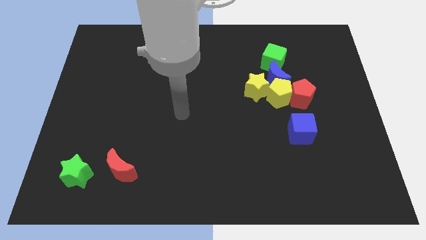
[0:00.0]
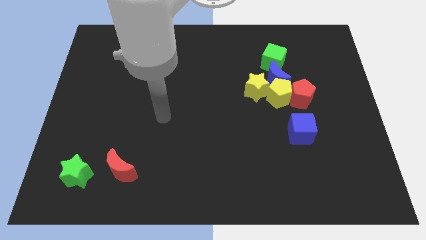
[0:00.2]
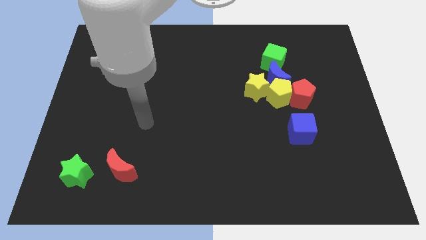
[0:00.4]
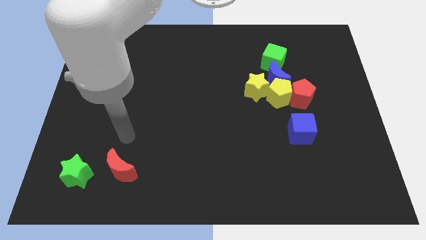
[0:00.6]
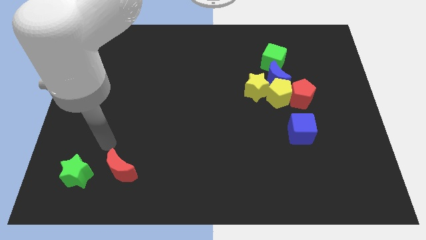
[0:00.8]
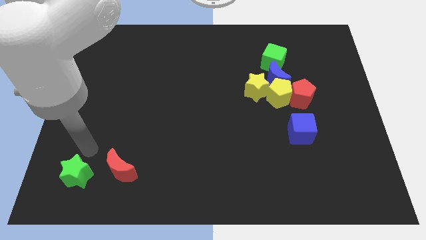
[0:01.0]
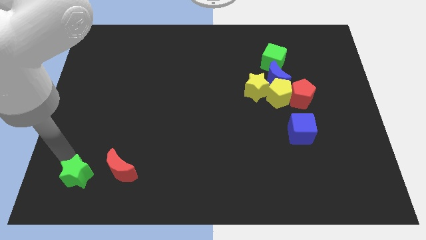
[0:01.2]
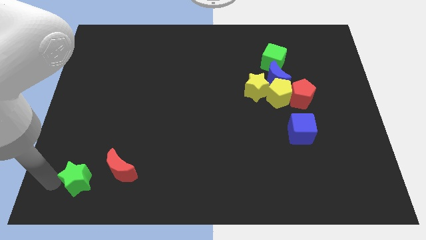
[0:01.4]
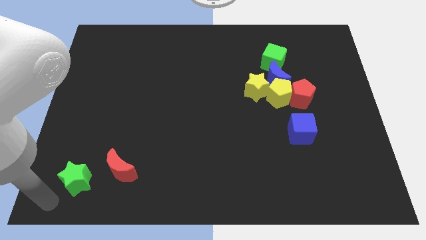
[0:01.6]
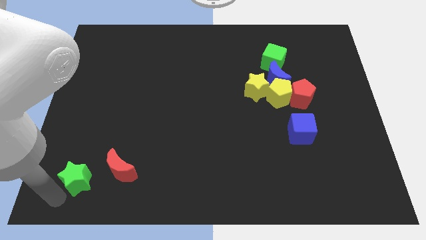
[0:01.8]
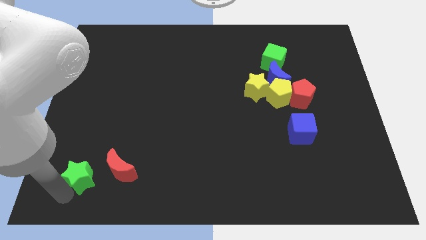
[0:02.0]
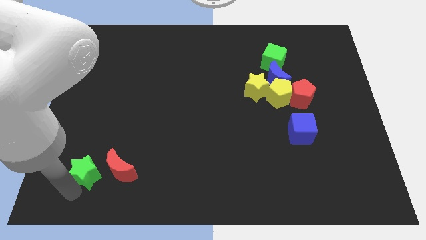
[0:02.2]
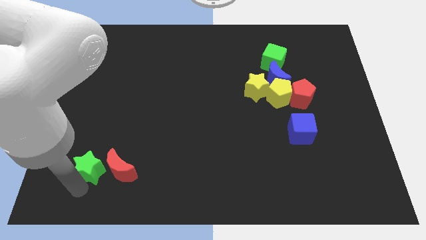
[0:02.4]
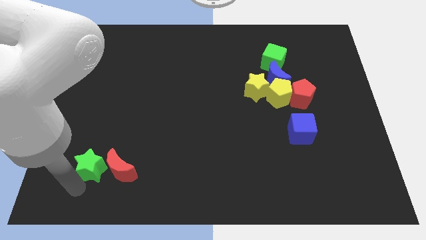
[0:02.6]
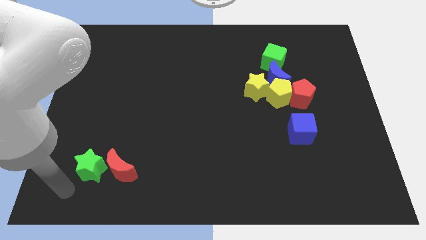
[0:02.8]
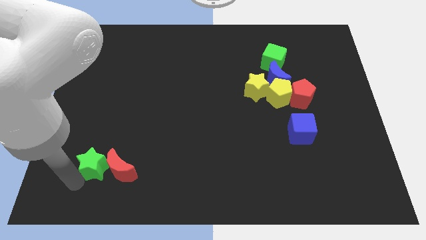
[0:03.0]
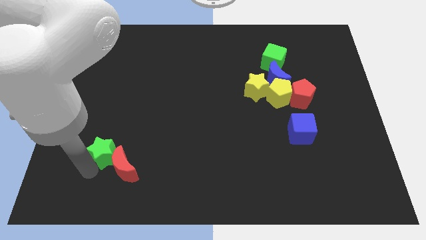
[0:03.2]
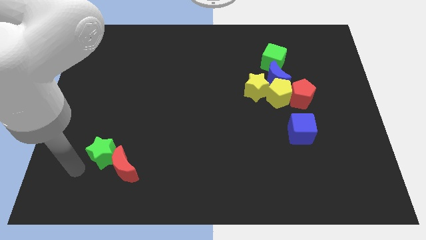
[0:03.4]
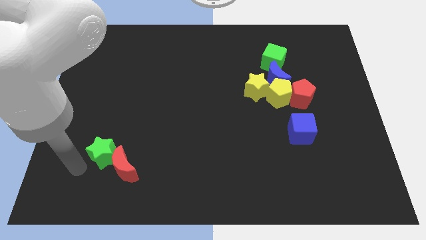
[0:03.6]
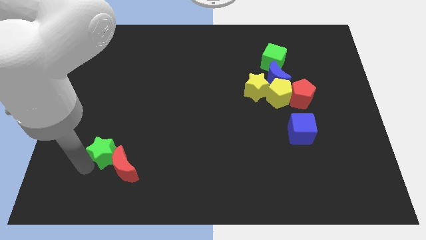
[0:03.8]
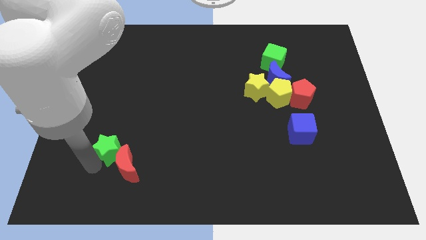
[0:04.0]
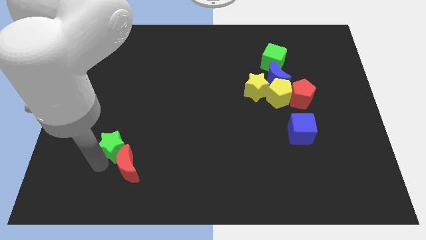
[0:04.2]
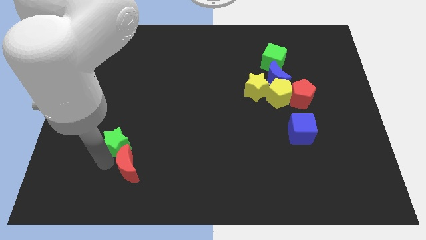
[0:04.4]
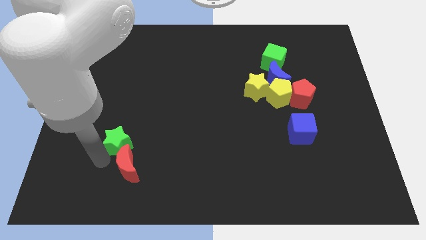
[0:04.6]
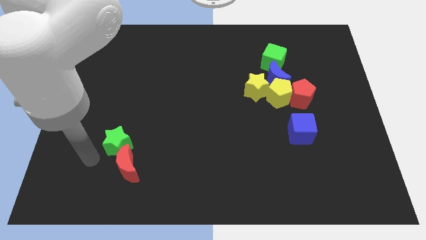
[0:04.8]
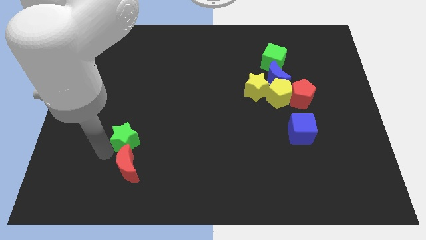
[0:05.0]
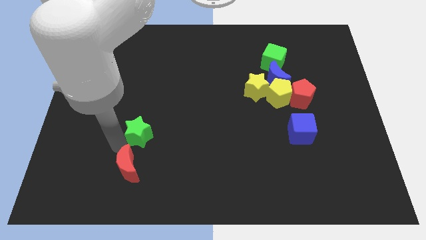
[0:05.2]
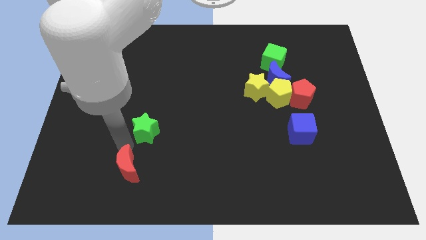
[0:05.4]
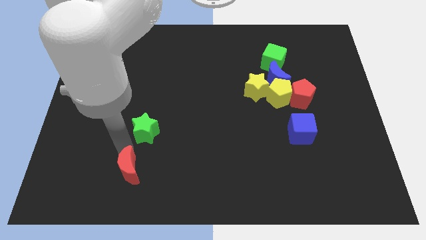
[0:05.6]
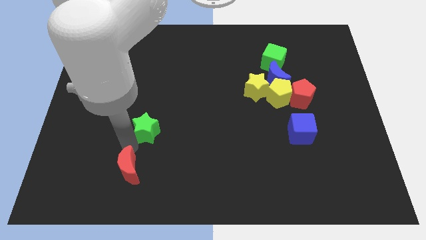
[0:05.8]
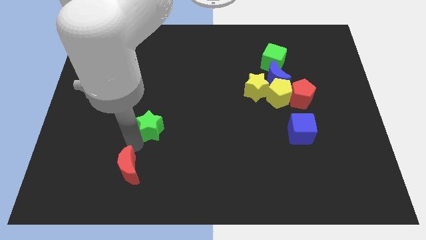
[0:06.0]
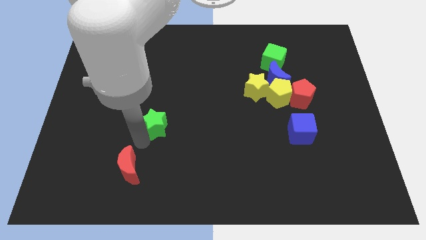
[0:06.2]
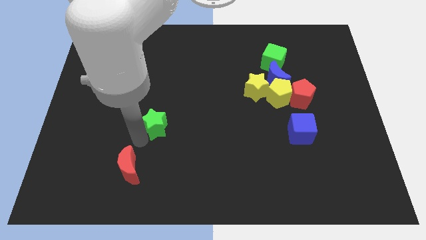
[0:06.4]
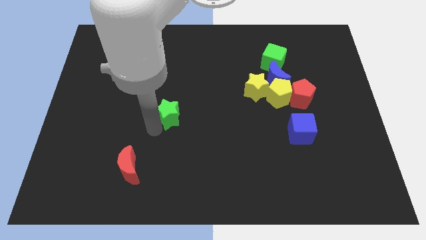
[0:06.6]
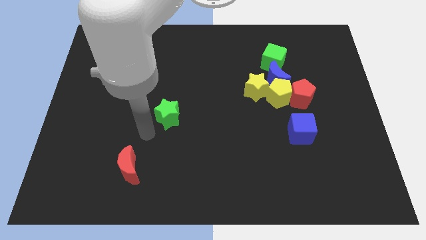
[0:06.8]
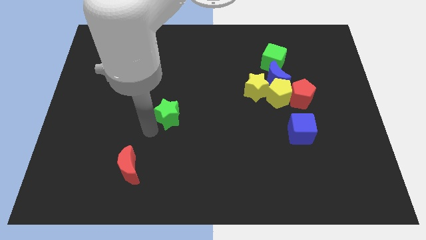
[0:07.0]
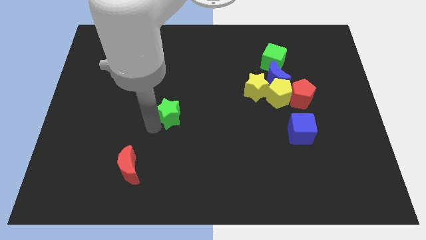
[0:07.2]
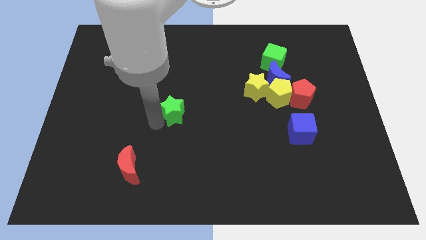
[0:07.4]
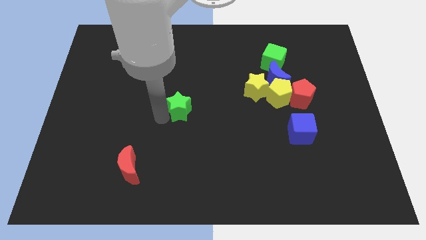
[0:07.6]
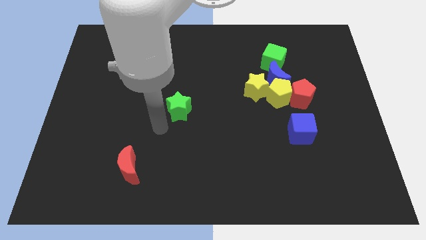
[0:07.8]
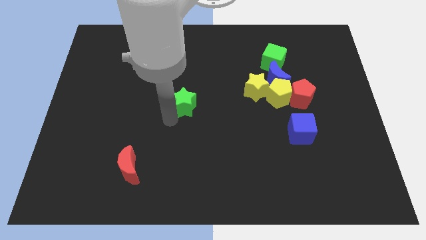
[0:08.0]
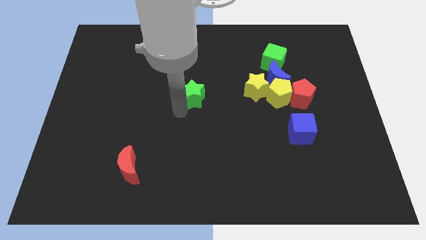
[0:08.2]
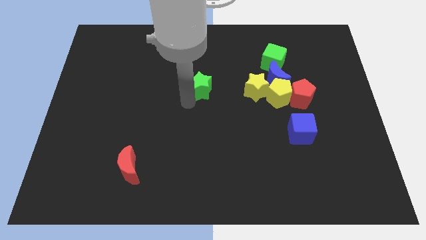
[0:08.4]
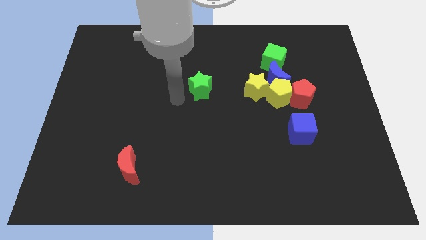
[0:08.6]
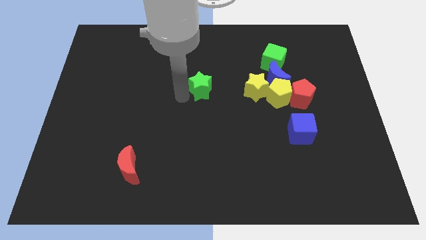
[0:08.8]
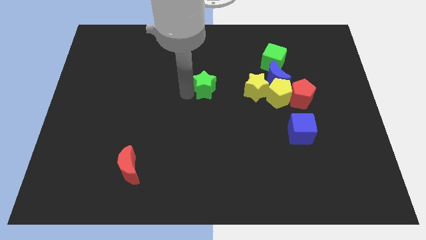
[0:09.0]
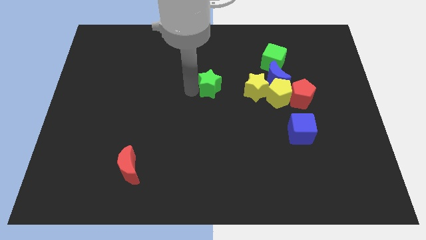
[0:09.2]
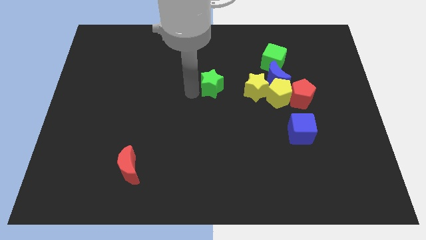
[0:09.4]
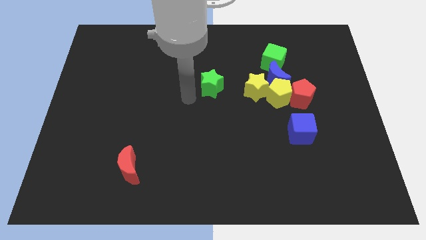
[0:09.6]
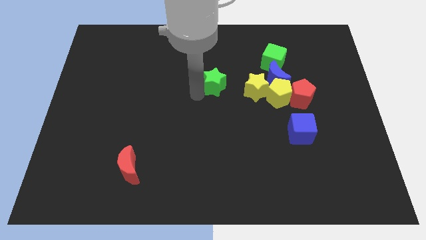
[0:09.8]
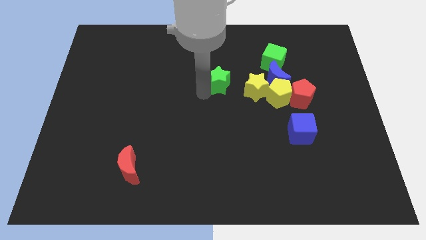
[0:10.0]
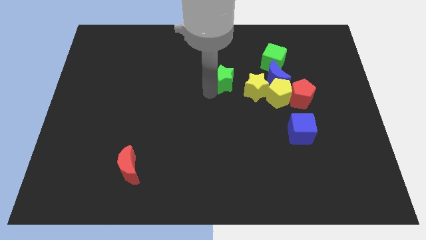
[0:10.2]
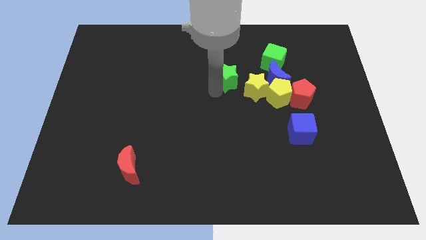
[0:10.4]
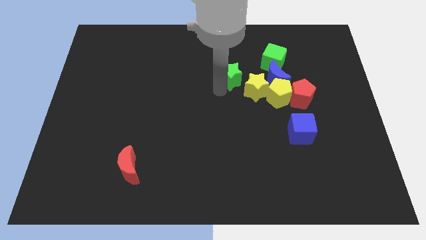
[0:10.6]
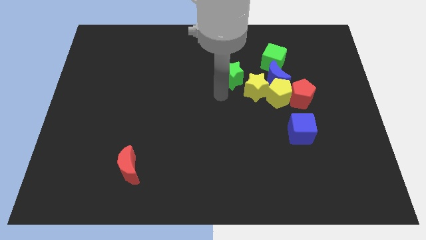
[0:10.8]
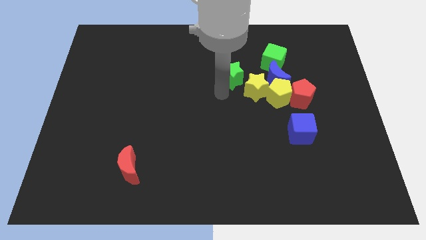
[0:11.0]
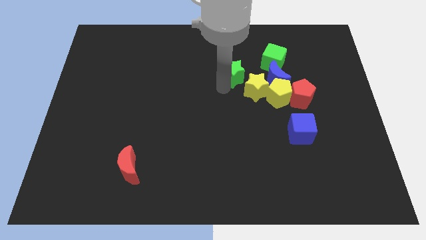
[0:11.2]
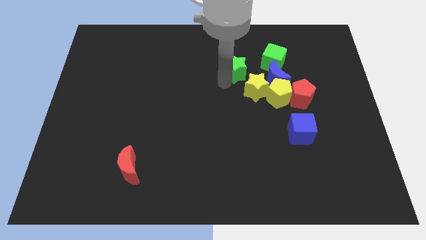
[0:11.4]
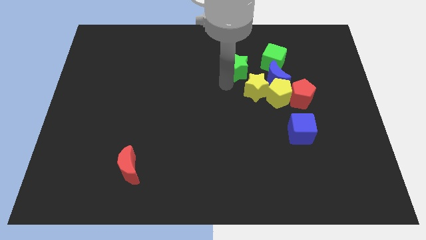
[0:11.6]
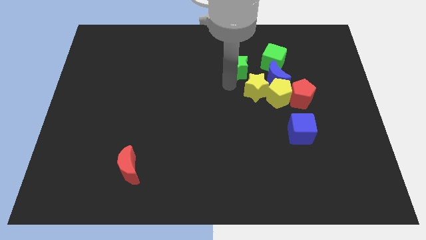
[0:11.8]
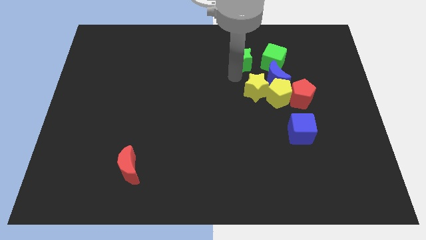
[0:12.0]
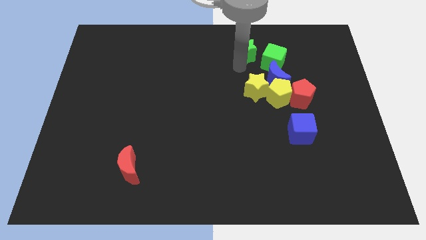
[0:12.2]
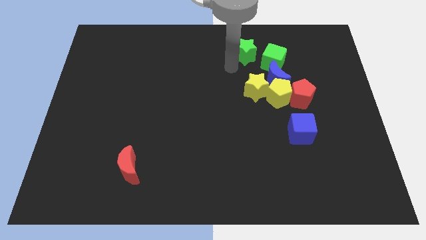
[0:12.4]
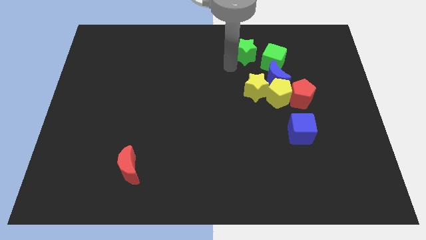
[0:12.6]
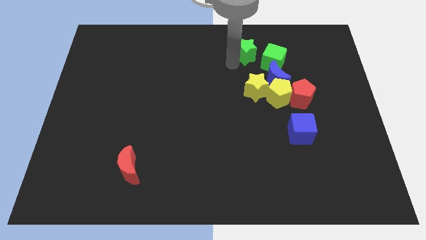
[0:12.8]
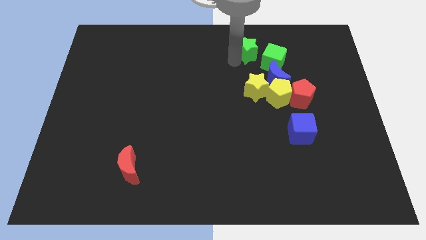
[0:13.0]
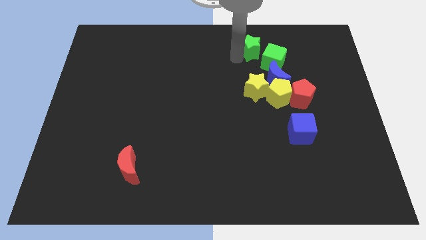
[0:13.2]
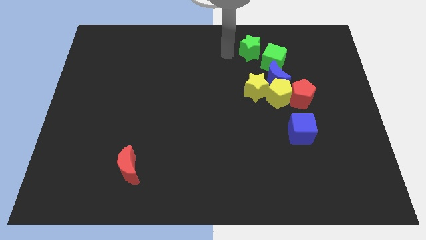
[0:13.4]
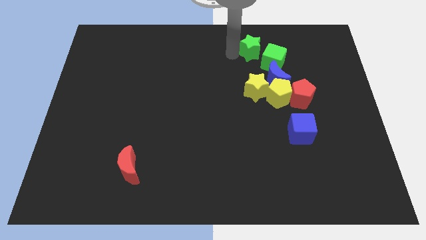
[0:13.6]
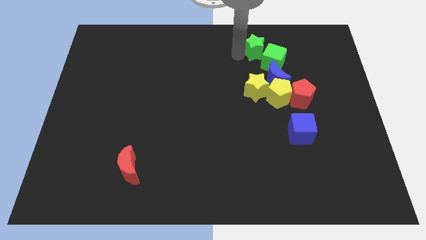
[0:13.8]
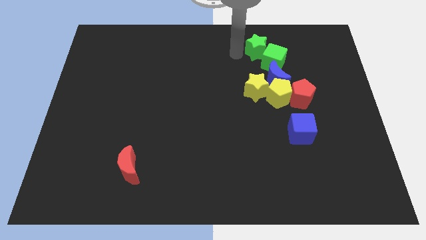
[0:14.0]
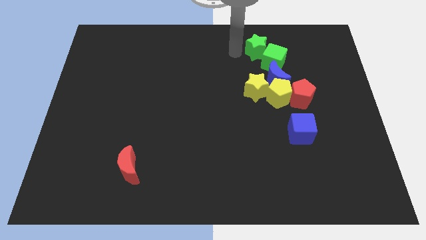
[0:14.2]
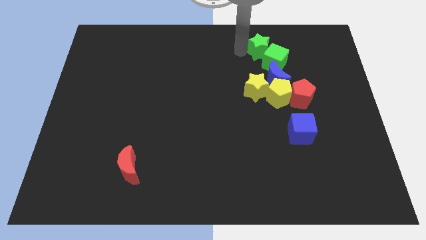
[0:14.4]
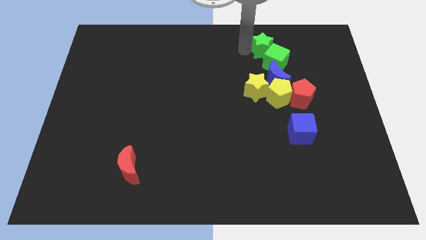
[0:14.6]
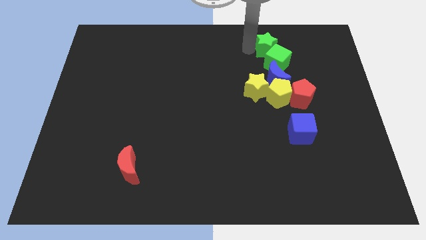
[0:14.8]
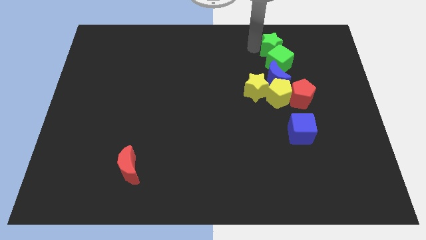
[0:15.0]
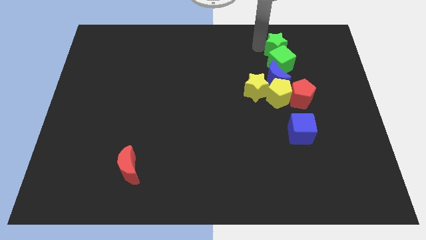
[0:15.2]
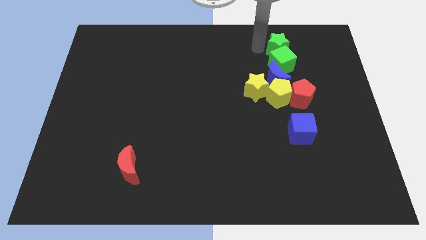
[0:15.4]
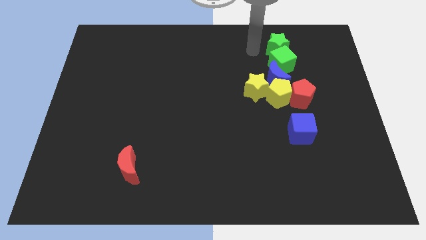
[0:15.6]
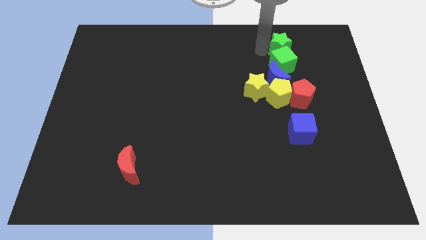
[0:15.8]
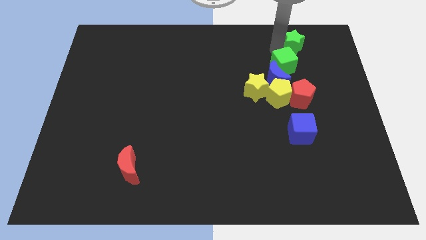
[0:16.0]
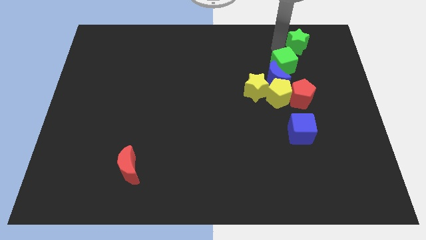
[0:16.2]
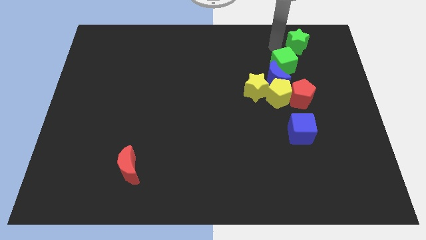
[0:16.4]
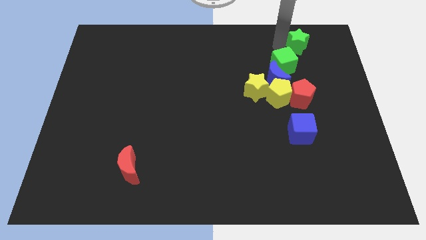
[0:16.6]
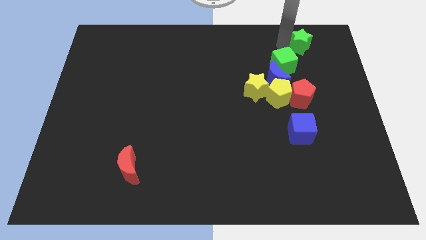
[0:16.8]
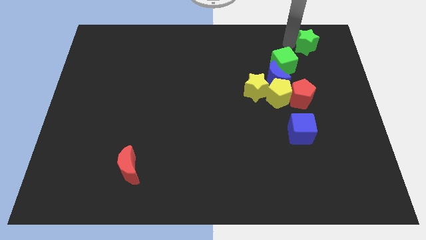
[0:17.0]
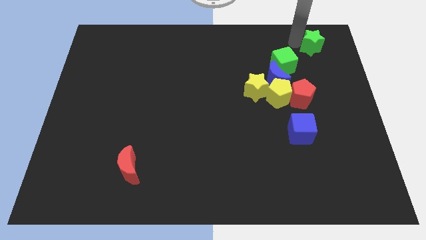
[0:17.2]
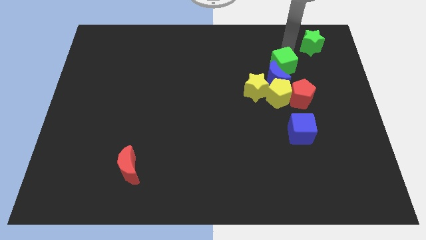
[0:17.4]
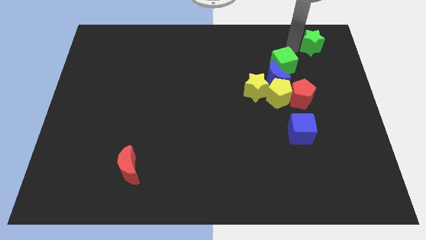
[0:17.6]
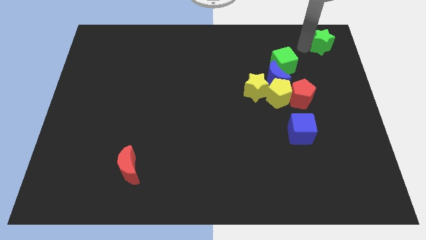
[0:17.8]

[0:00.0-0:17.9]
move the green star to the top right
